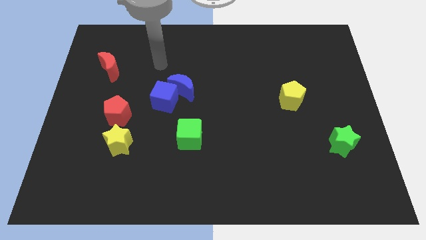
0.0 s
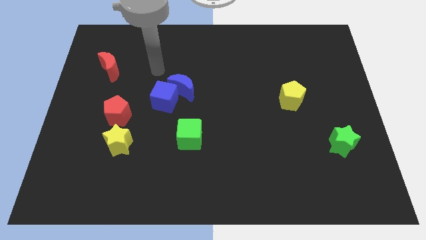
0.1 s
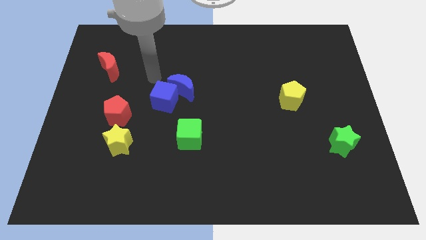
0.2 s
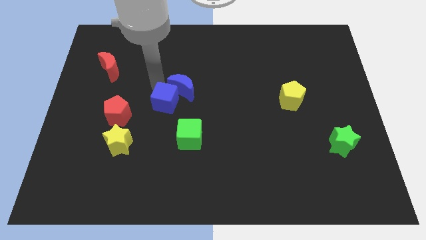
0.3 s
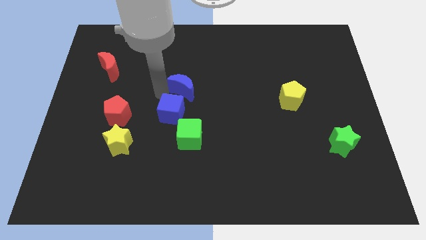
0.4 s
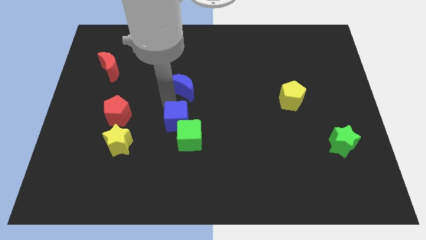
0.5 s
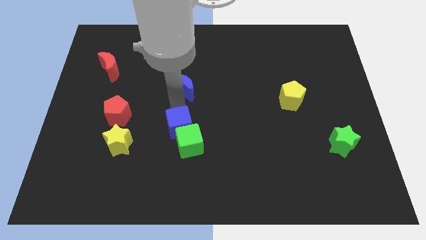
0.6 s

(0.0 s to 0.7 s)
move the blue moon away from the blue cube

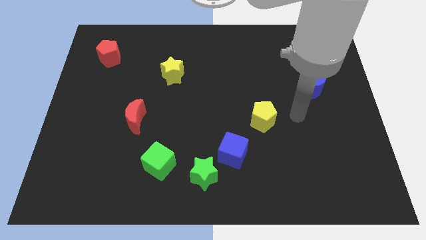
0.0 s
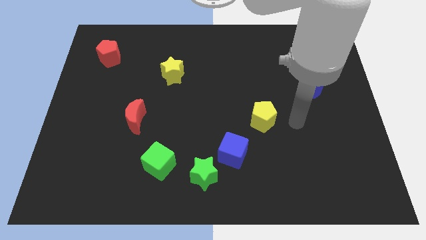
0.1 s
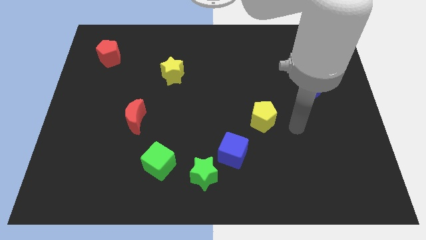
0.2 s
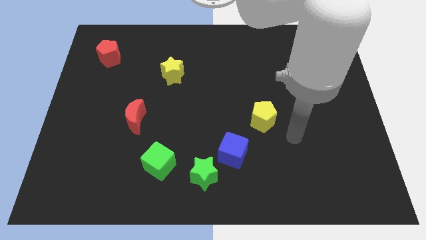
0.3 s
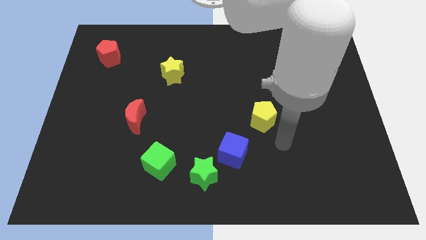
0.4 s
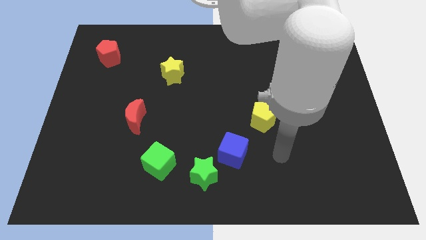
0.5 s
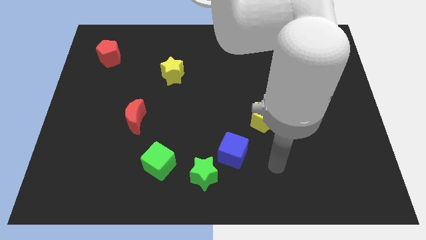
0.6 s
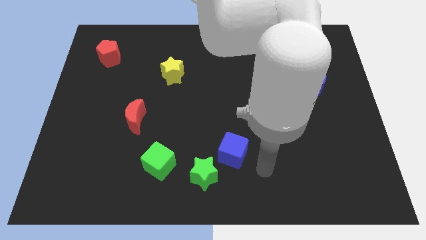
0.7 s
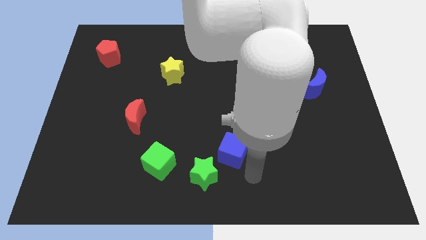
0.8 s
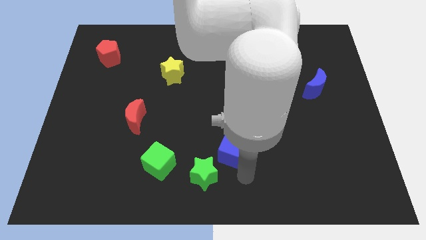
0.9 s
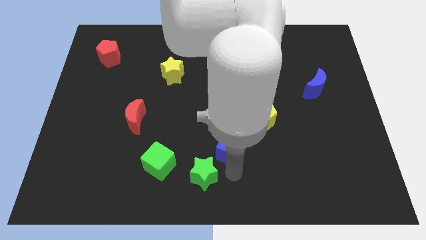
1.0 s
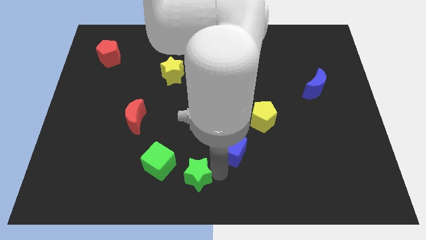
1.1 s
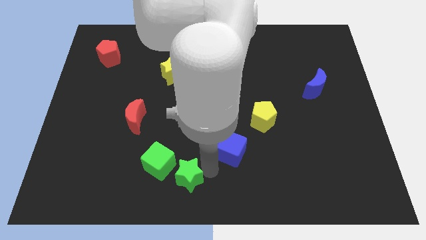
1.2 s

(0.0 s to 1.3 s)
move the blue cube away from the green star

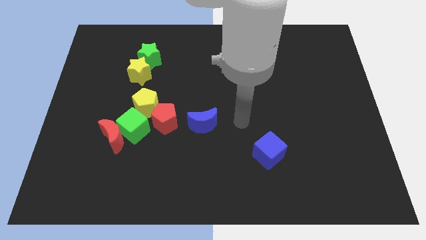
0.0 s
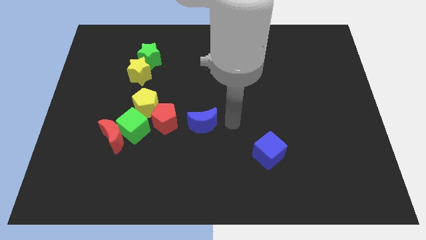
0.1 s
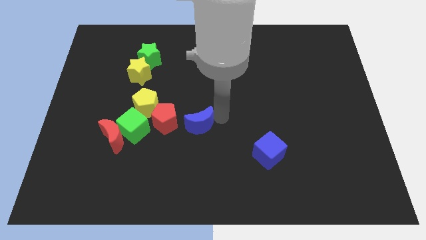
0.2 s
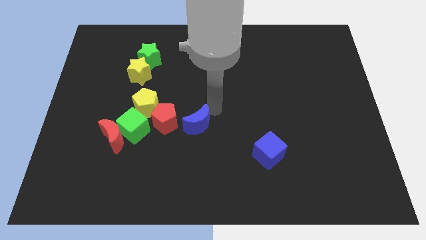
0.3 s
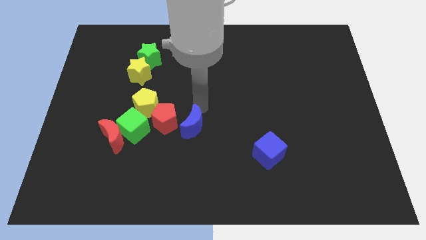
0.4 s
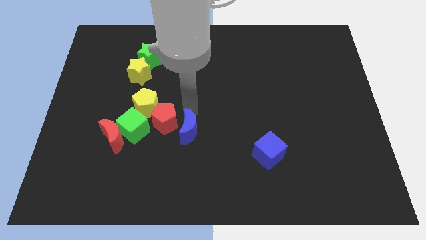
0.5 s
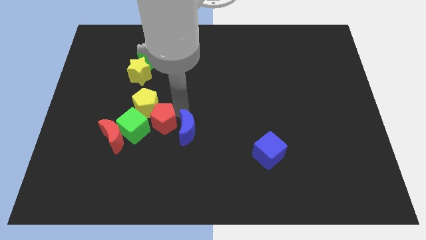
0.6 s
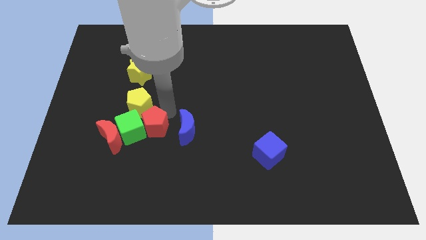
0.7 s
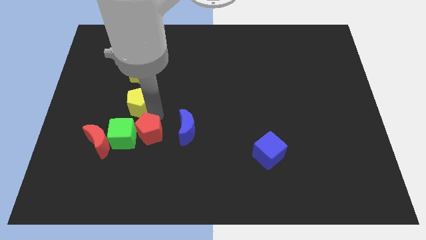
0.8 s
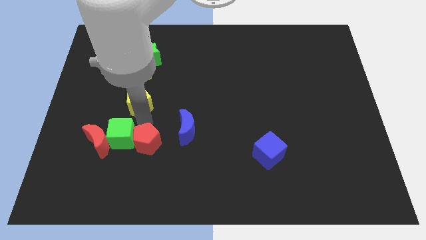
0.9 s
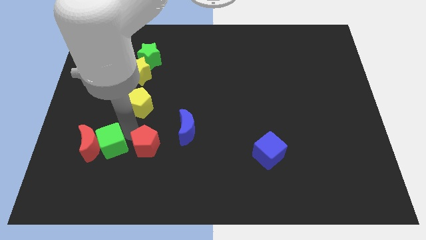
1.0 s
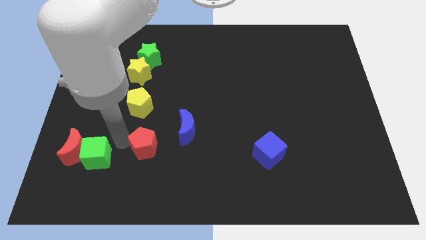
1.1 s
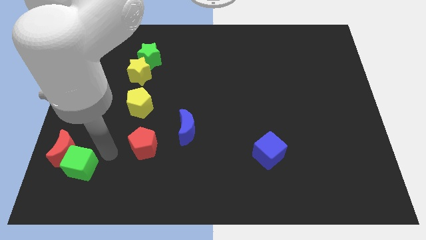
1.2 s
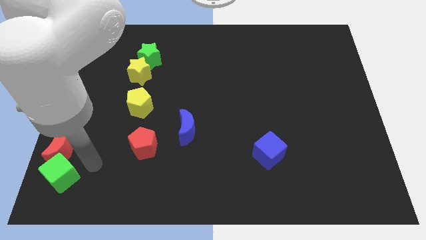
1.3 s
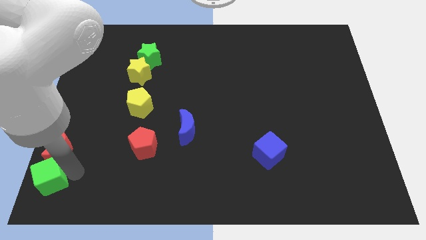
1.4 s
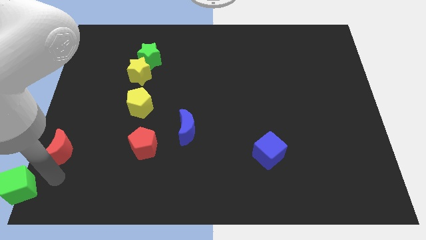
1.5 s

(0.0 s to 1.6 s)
separate the red moon from the green cube

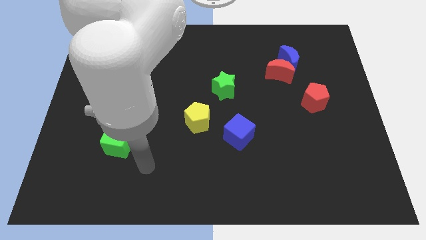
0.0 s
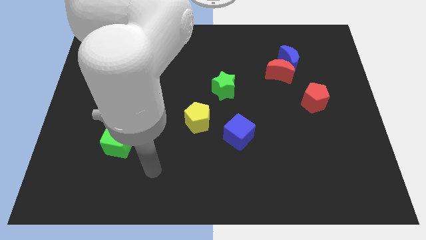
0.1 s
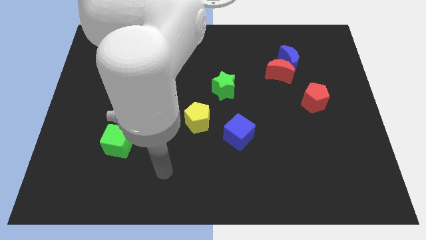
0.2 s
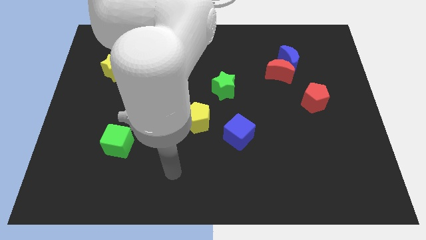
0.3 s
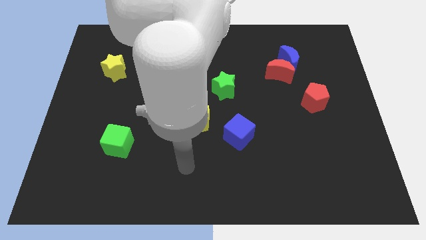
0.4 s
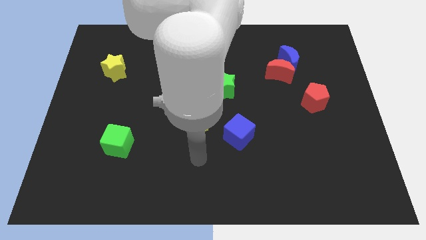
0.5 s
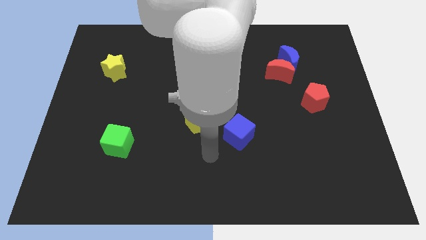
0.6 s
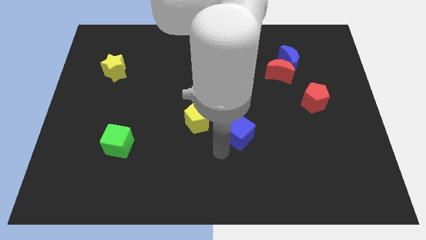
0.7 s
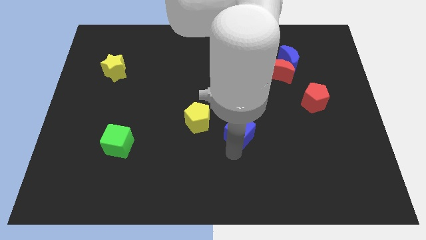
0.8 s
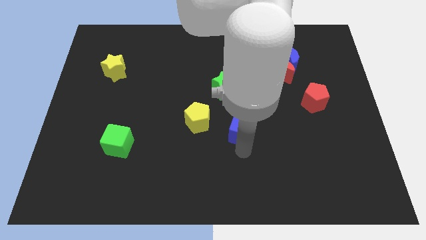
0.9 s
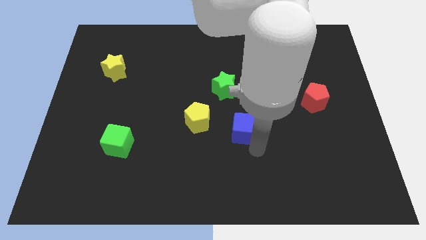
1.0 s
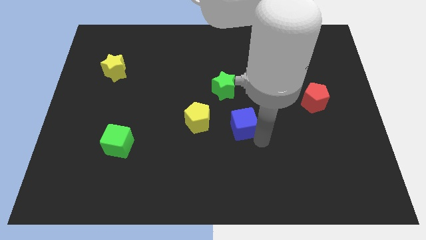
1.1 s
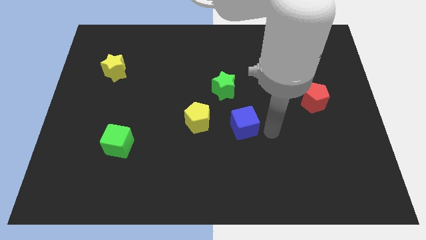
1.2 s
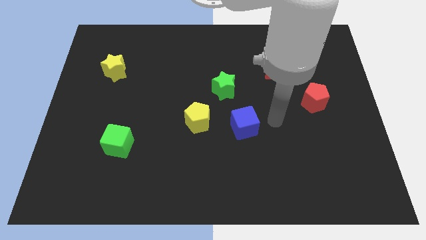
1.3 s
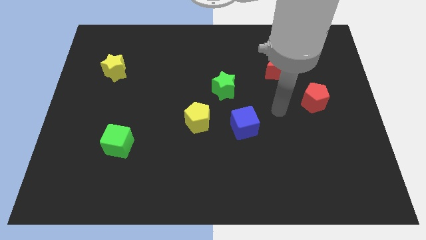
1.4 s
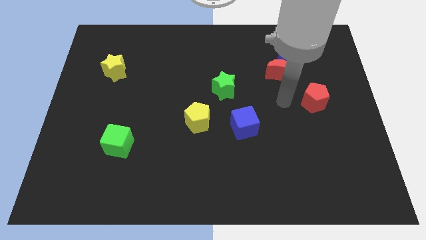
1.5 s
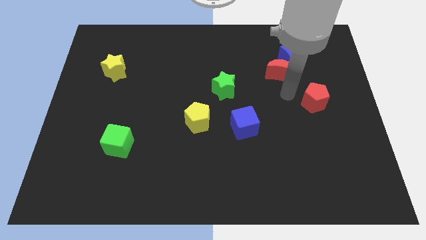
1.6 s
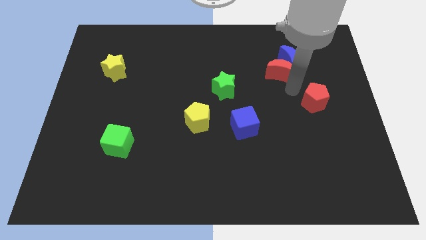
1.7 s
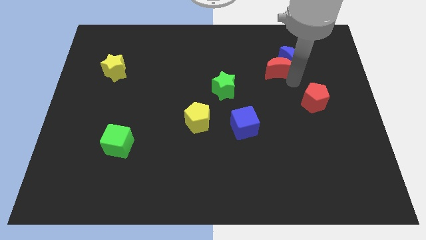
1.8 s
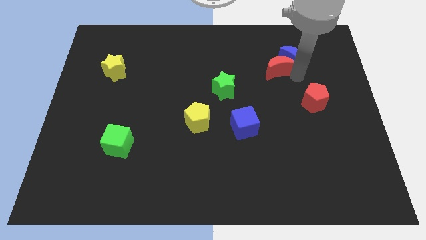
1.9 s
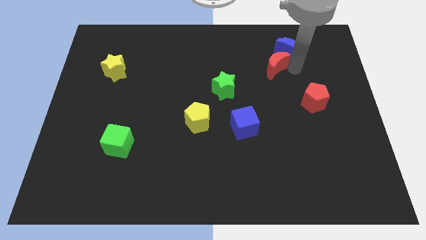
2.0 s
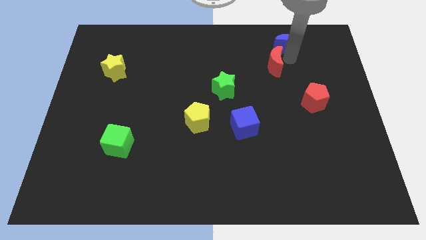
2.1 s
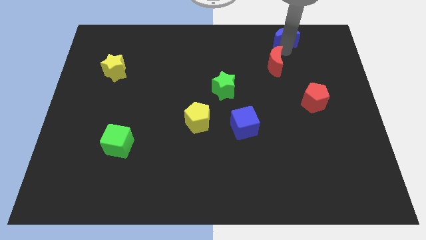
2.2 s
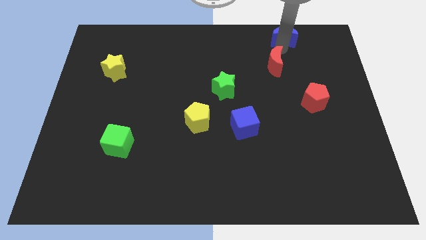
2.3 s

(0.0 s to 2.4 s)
separate the red moon from the blue moon

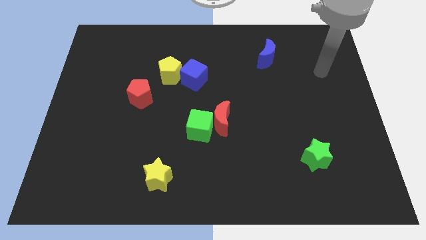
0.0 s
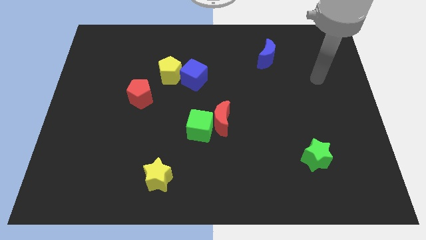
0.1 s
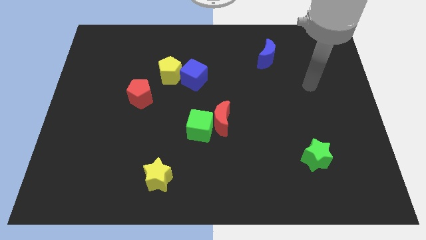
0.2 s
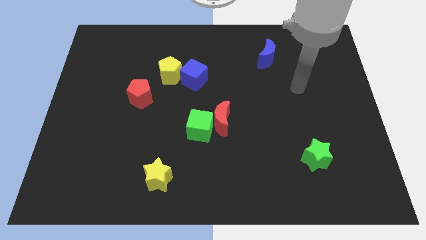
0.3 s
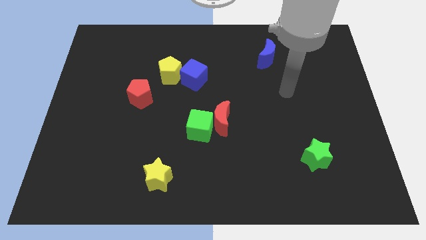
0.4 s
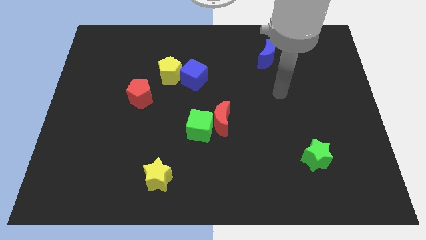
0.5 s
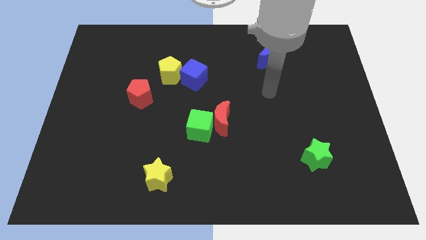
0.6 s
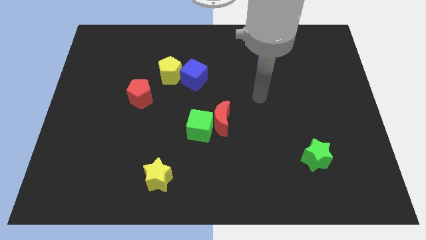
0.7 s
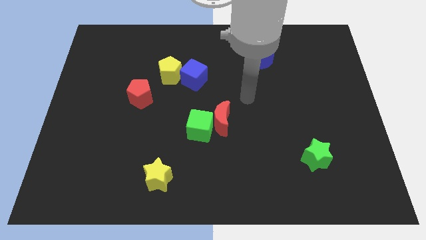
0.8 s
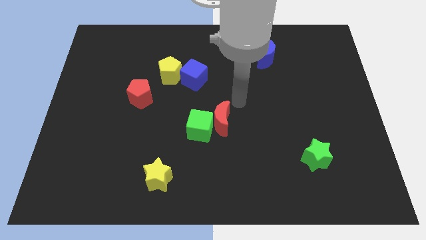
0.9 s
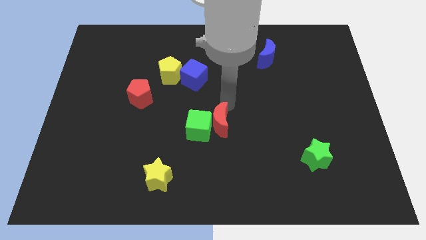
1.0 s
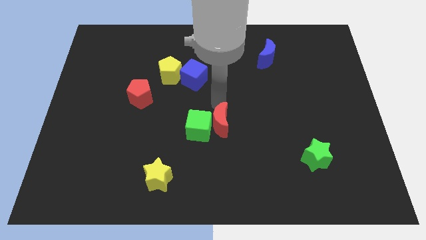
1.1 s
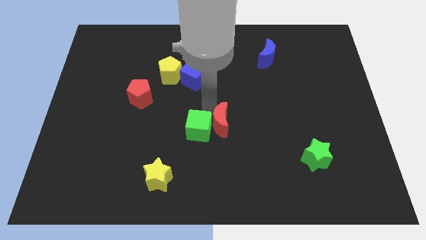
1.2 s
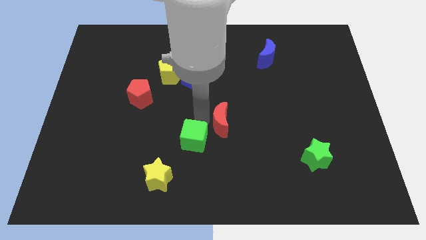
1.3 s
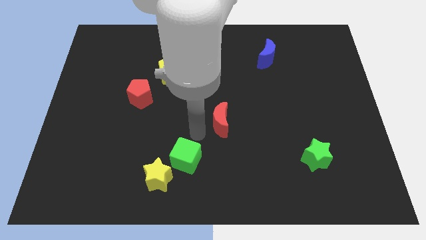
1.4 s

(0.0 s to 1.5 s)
pull the red moon apart from the green cube

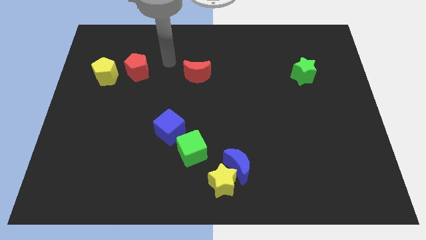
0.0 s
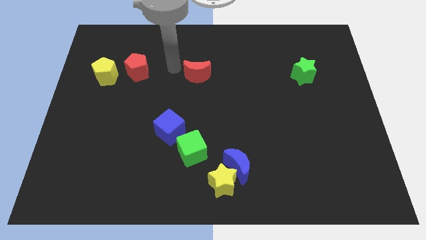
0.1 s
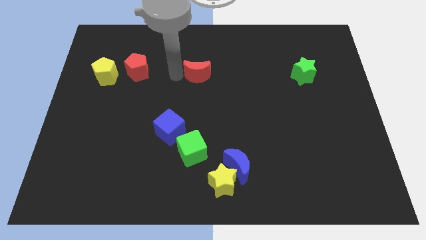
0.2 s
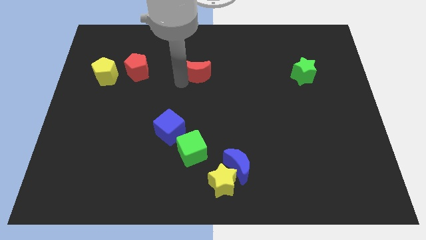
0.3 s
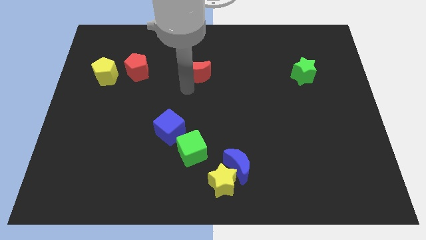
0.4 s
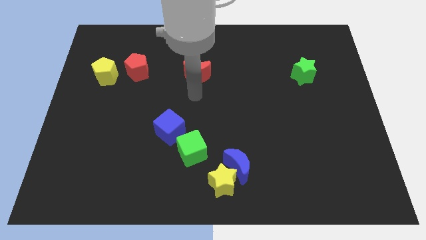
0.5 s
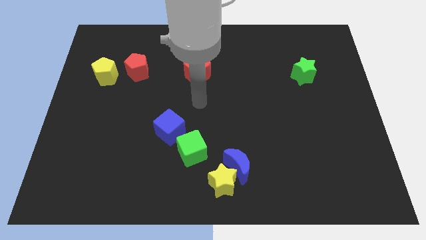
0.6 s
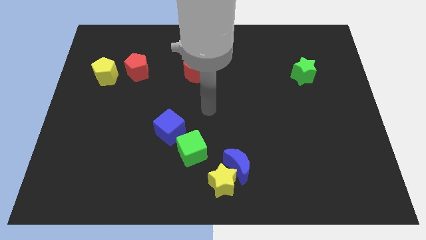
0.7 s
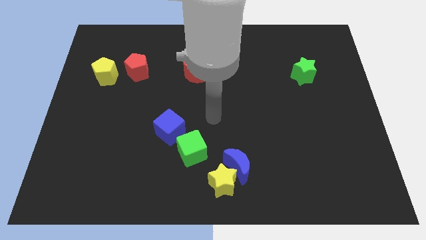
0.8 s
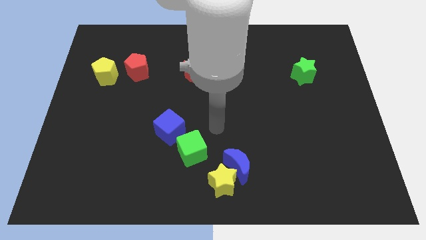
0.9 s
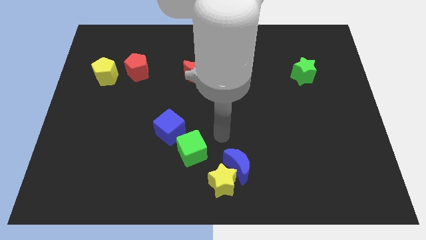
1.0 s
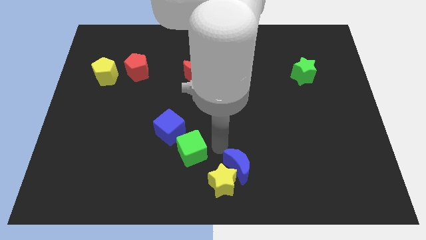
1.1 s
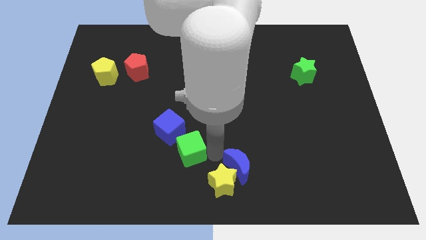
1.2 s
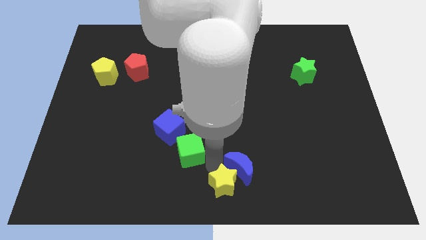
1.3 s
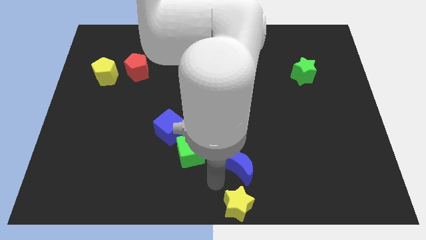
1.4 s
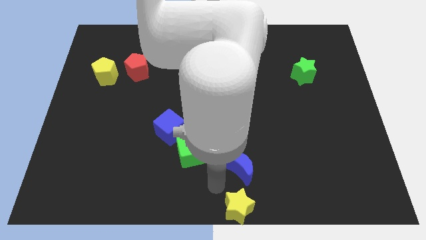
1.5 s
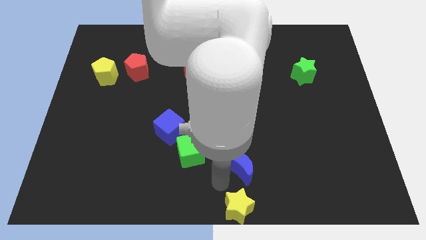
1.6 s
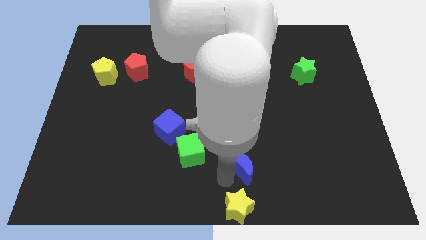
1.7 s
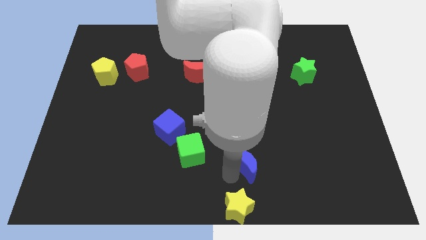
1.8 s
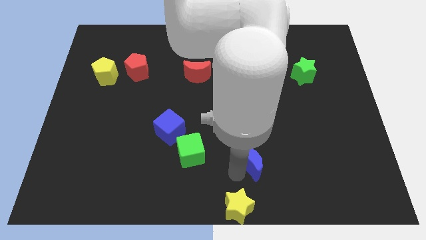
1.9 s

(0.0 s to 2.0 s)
move the blue moon away from the yellow star
